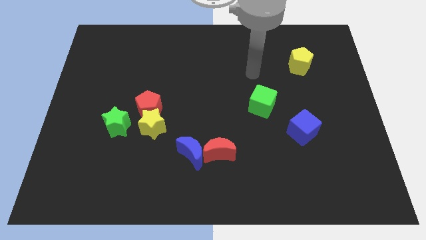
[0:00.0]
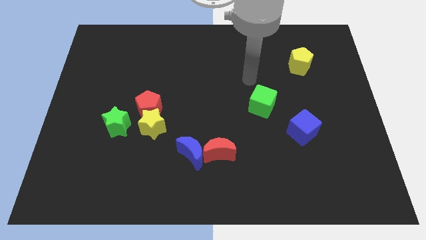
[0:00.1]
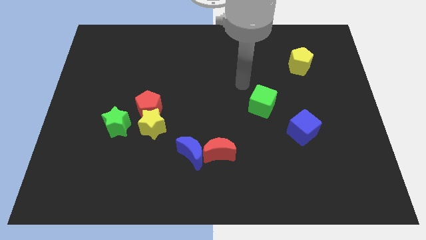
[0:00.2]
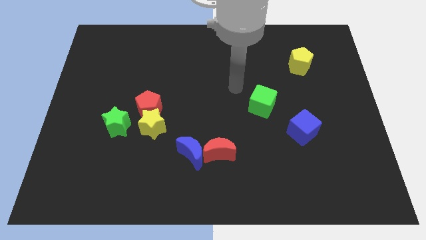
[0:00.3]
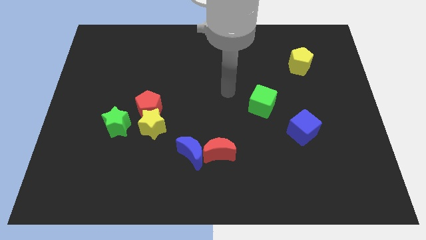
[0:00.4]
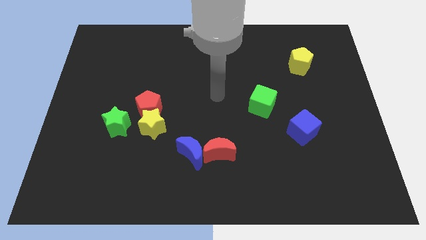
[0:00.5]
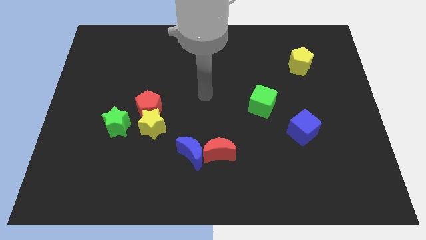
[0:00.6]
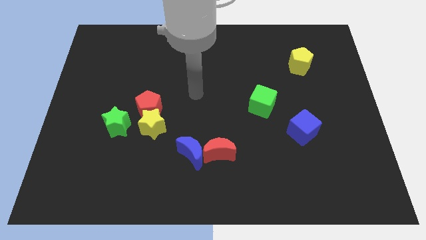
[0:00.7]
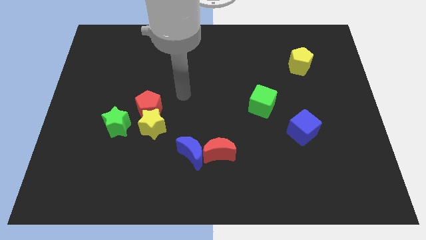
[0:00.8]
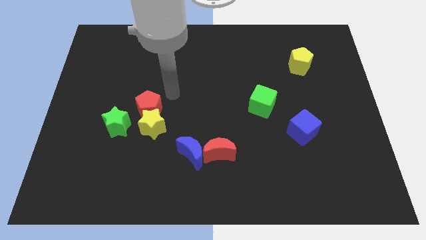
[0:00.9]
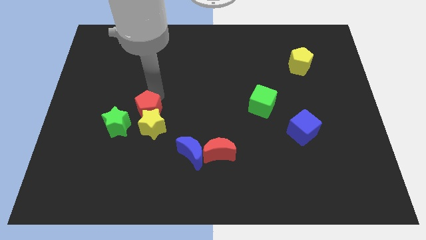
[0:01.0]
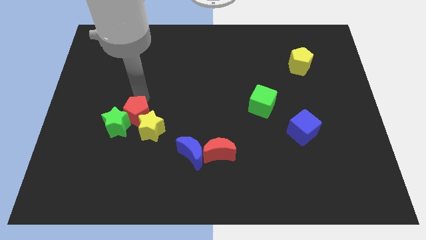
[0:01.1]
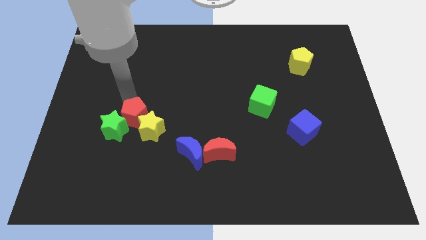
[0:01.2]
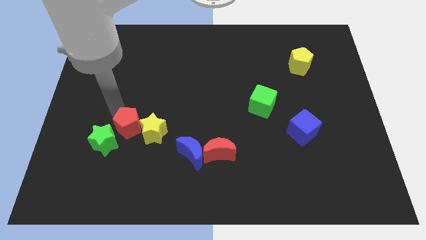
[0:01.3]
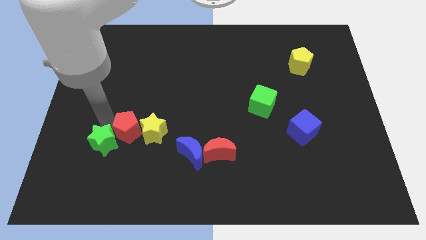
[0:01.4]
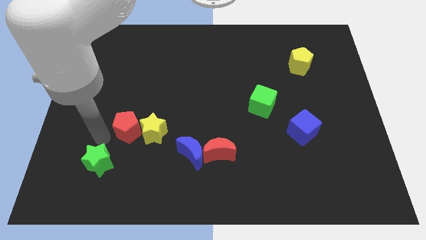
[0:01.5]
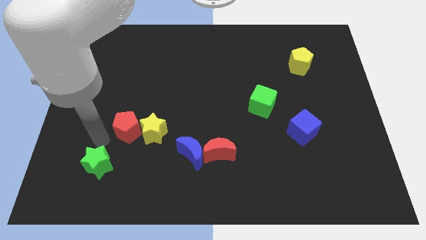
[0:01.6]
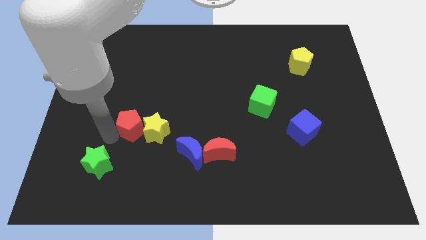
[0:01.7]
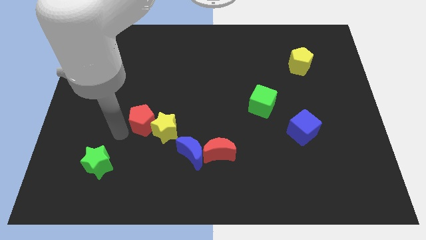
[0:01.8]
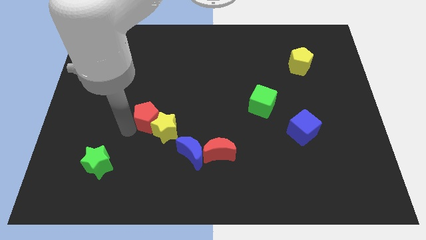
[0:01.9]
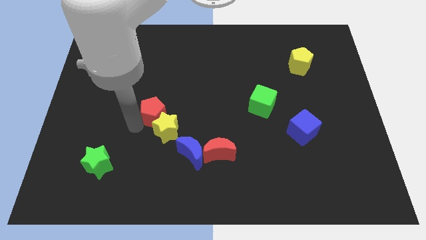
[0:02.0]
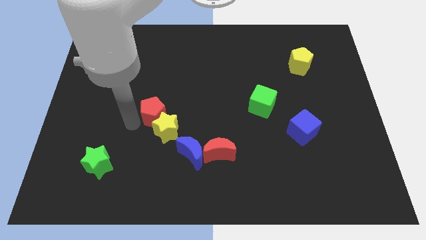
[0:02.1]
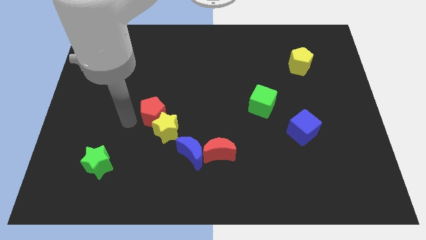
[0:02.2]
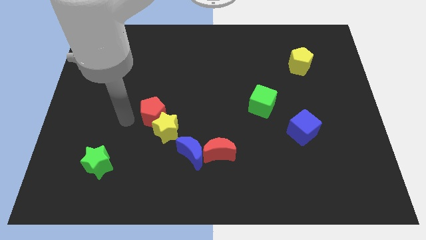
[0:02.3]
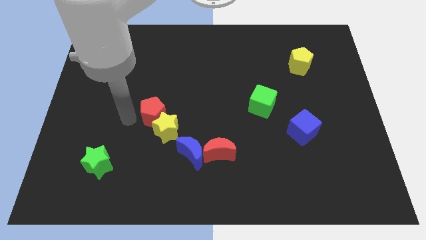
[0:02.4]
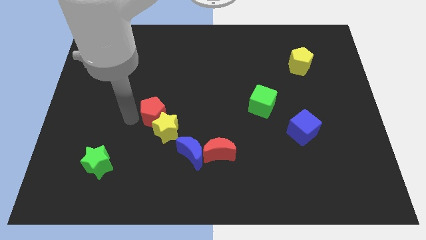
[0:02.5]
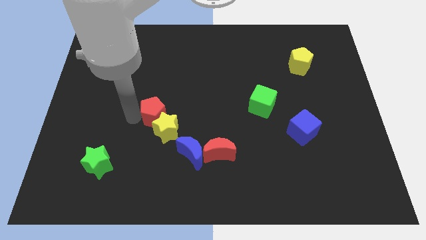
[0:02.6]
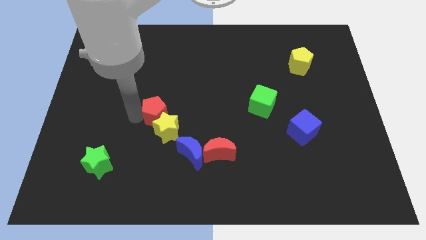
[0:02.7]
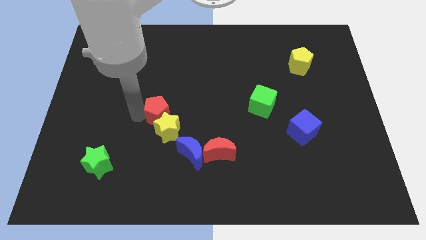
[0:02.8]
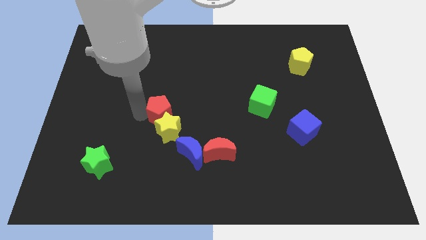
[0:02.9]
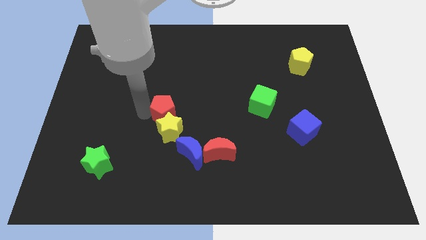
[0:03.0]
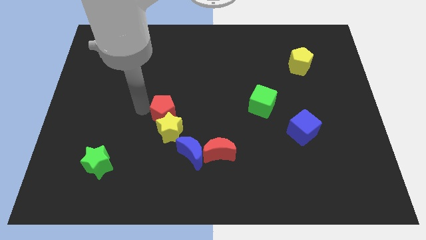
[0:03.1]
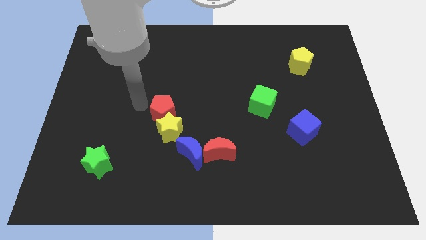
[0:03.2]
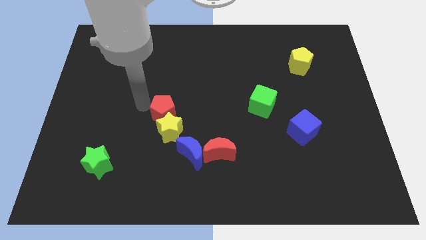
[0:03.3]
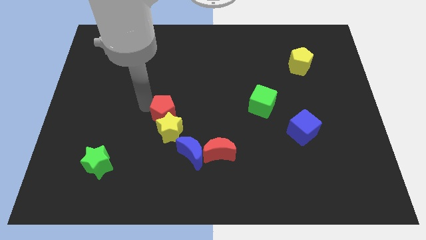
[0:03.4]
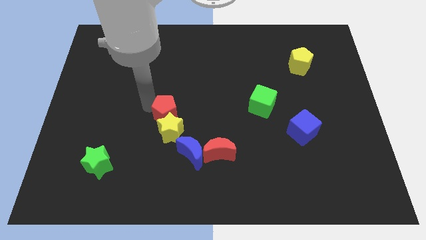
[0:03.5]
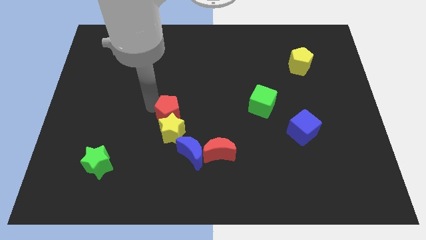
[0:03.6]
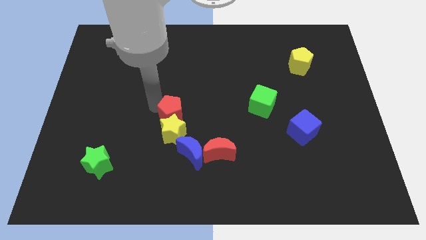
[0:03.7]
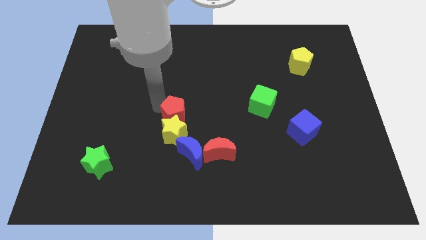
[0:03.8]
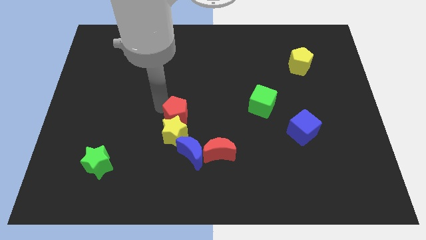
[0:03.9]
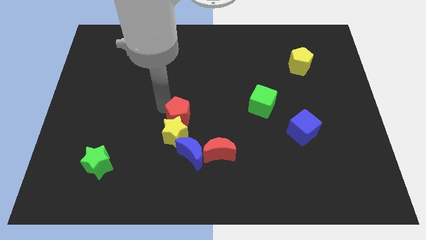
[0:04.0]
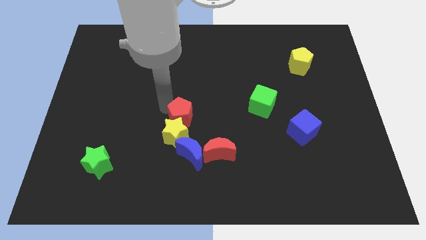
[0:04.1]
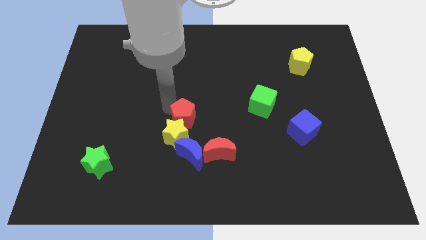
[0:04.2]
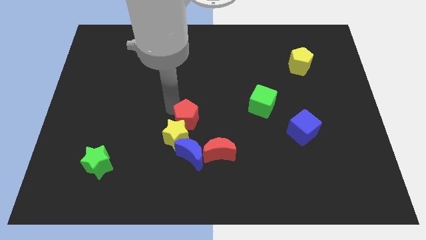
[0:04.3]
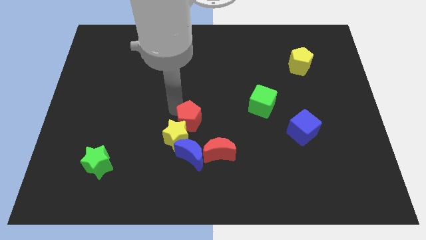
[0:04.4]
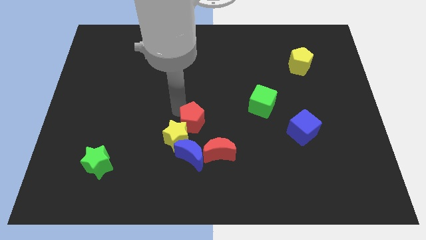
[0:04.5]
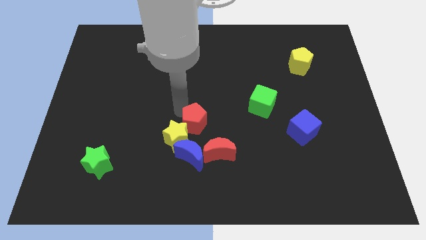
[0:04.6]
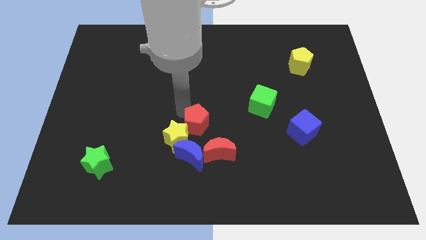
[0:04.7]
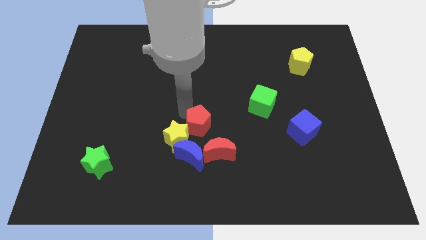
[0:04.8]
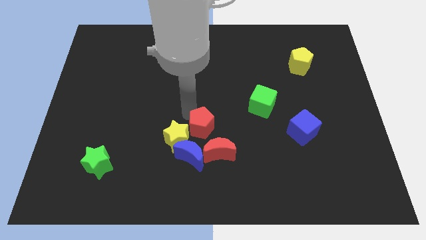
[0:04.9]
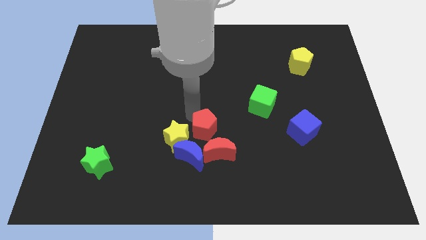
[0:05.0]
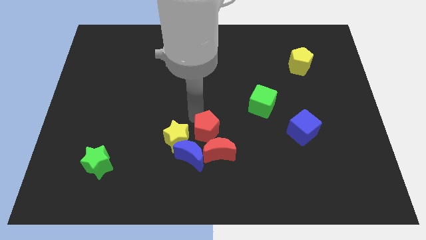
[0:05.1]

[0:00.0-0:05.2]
move the red pentagon next to the red moon

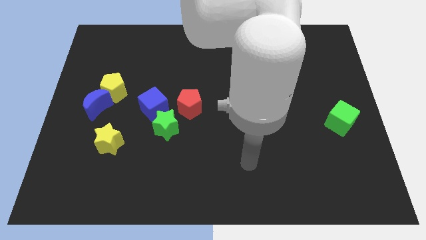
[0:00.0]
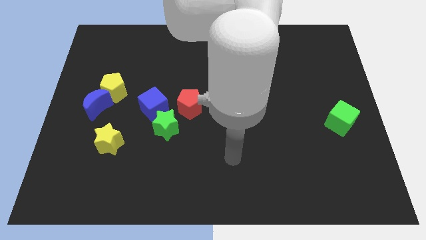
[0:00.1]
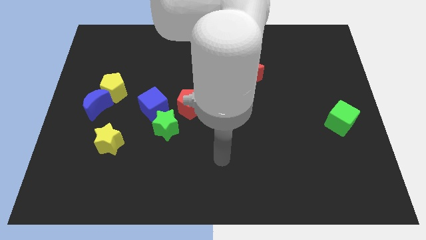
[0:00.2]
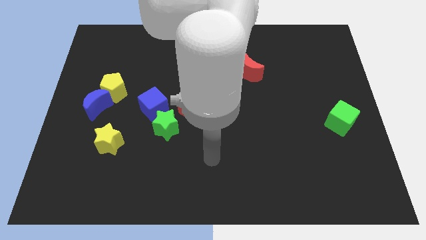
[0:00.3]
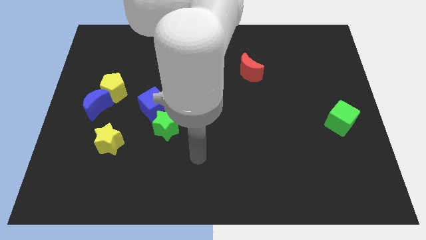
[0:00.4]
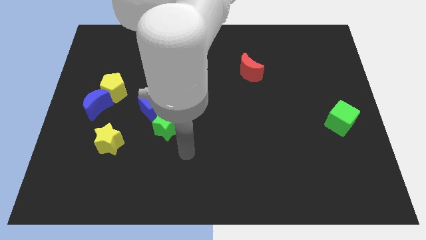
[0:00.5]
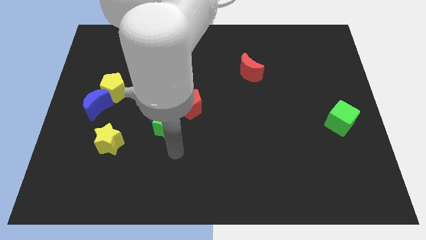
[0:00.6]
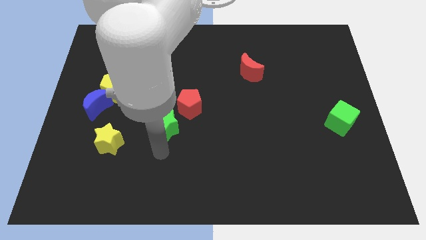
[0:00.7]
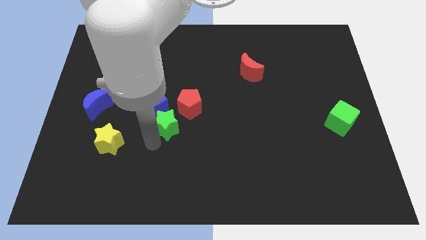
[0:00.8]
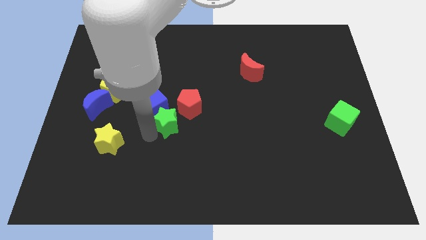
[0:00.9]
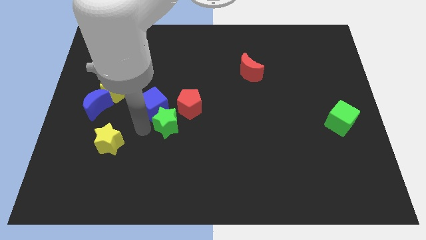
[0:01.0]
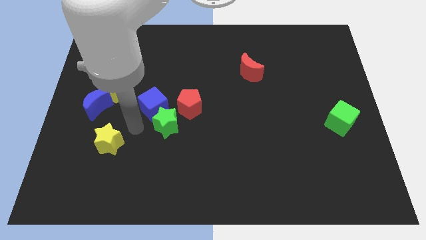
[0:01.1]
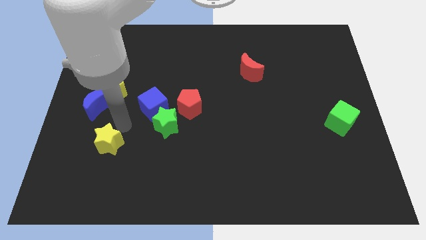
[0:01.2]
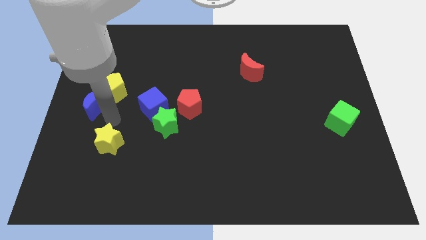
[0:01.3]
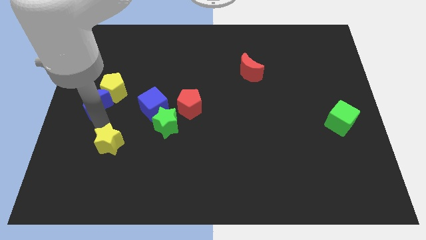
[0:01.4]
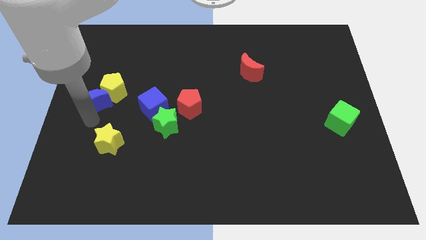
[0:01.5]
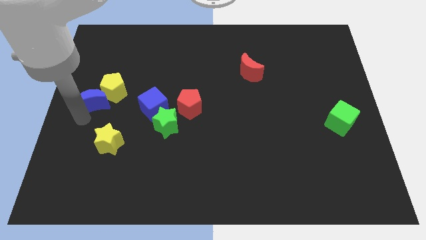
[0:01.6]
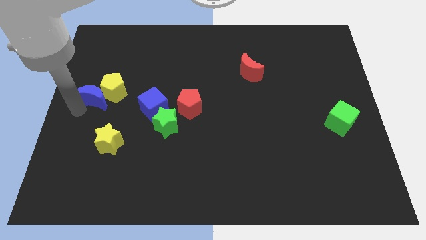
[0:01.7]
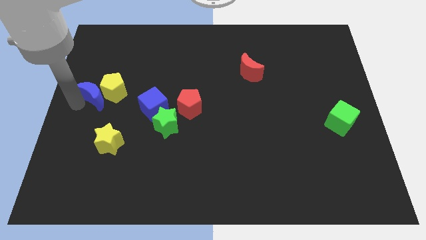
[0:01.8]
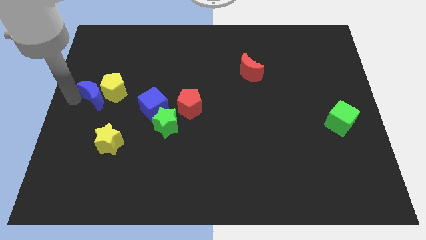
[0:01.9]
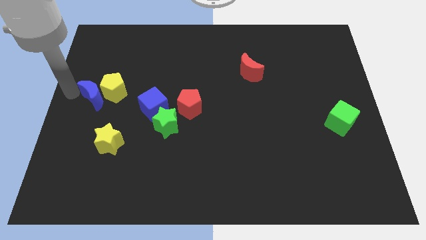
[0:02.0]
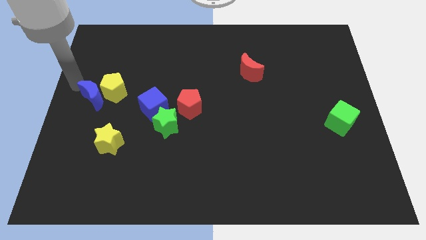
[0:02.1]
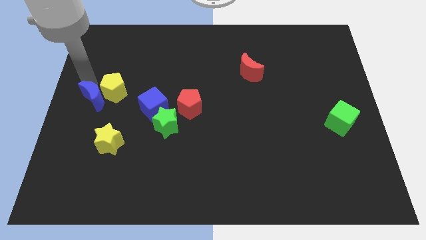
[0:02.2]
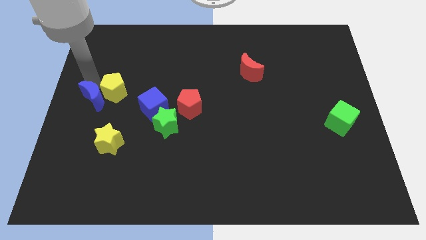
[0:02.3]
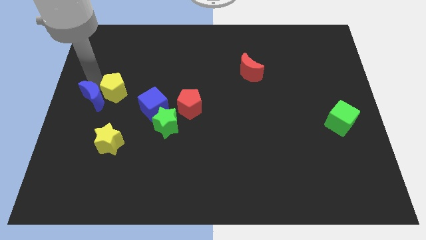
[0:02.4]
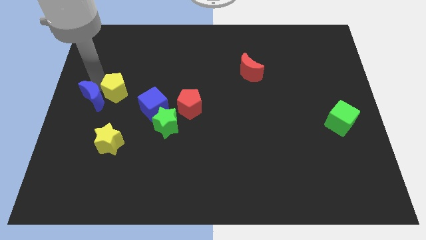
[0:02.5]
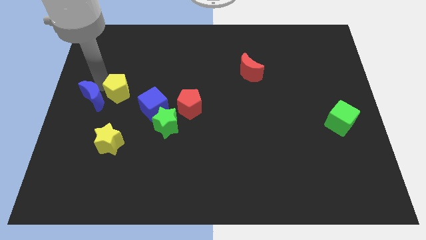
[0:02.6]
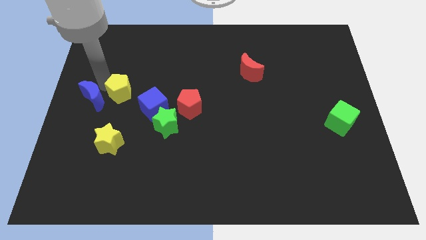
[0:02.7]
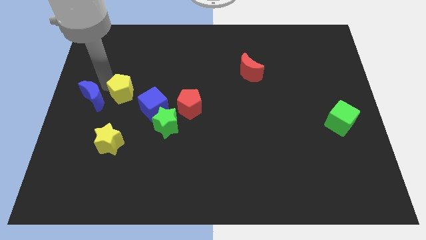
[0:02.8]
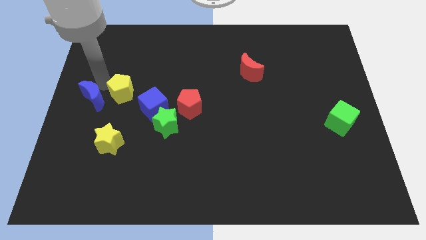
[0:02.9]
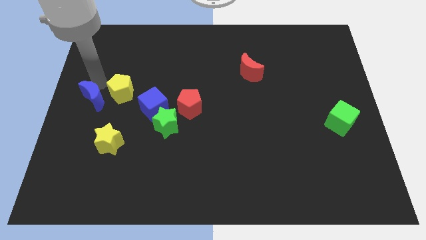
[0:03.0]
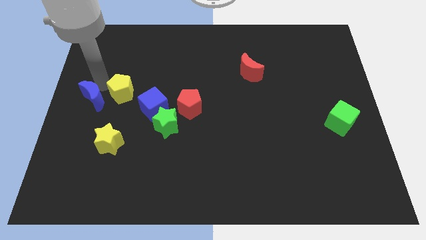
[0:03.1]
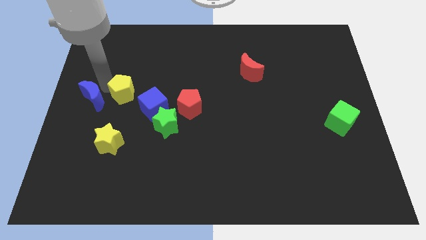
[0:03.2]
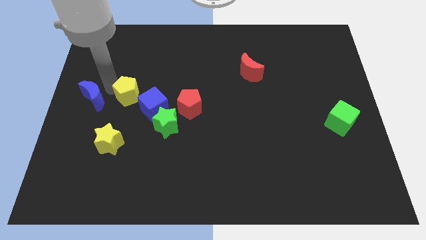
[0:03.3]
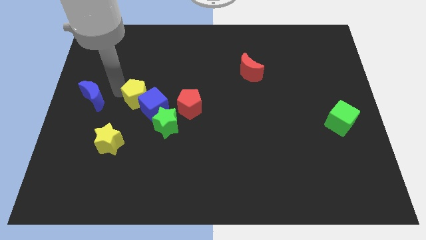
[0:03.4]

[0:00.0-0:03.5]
put the yellow pentagon towards the blue cube
